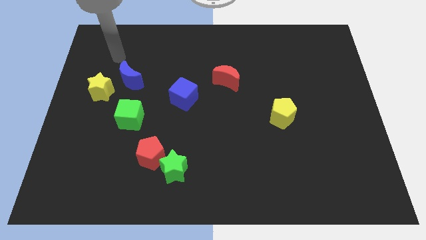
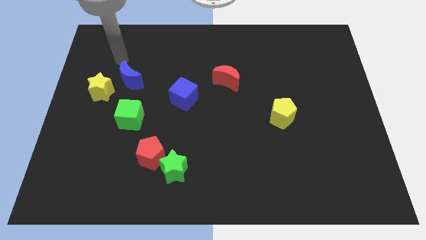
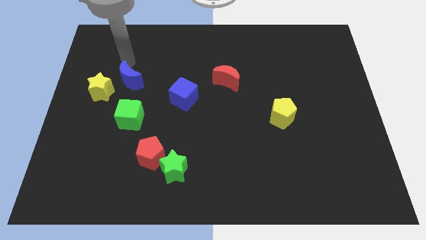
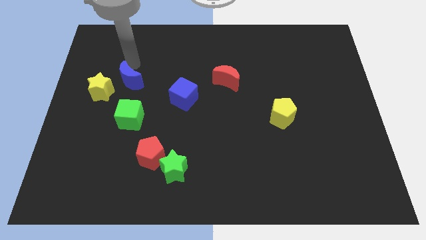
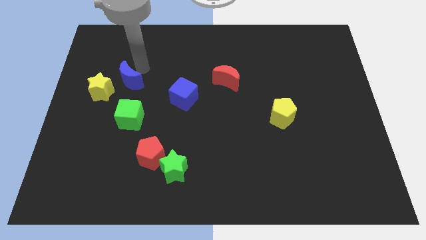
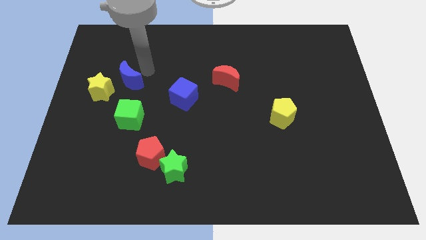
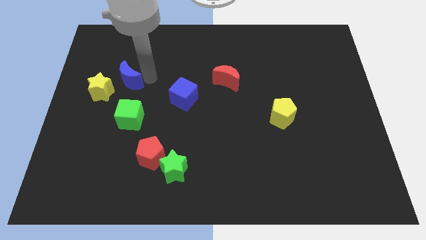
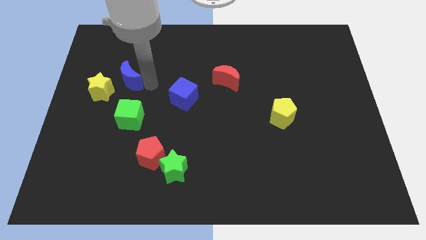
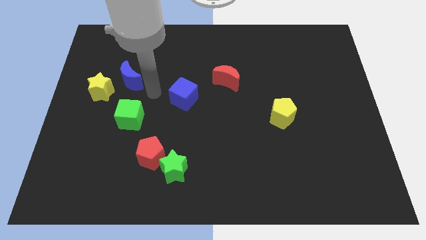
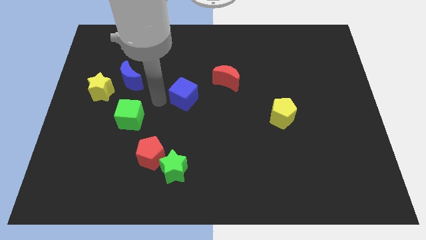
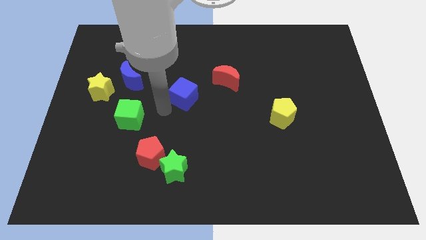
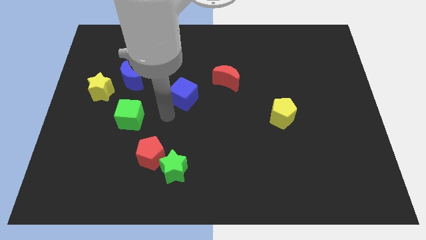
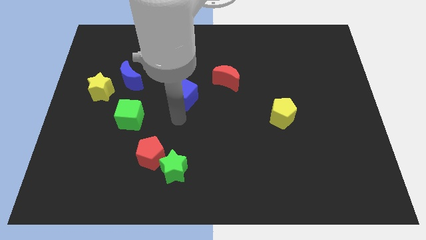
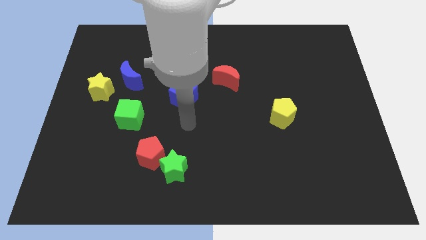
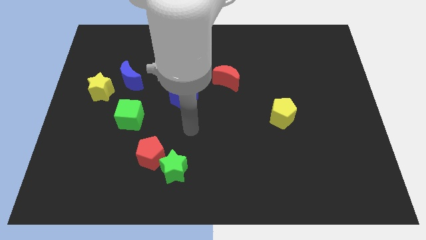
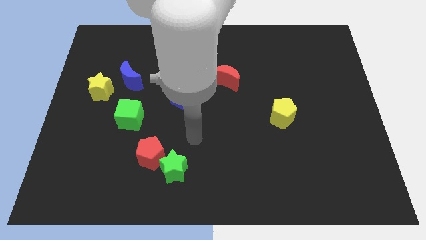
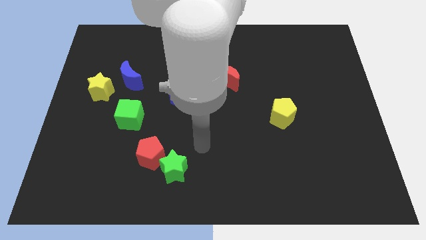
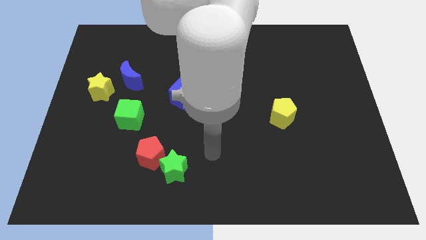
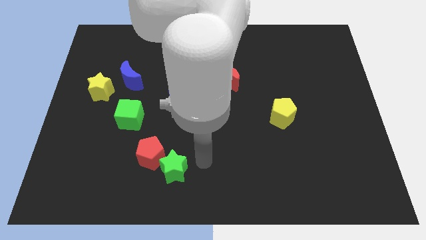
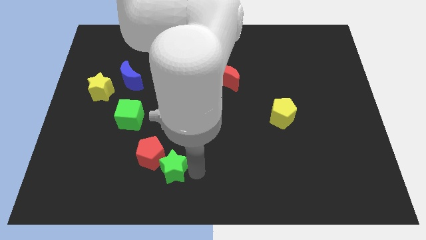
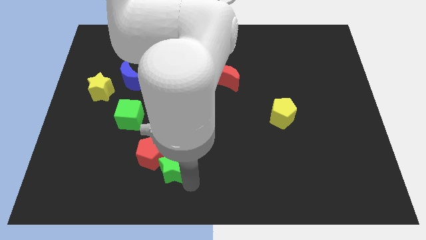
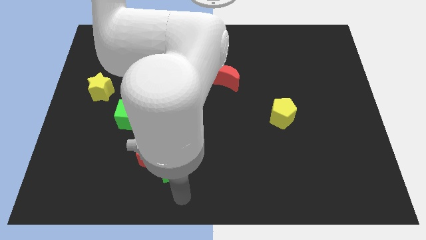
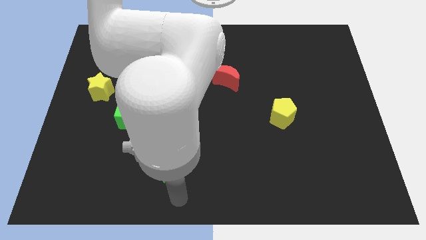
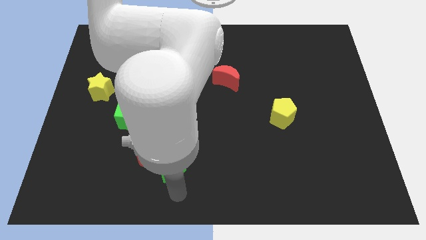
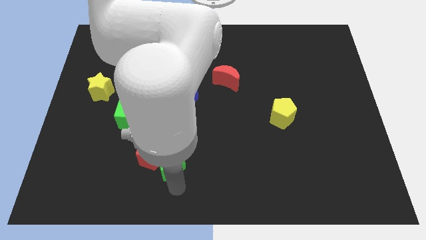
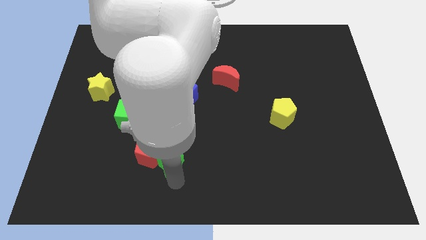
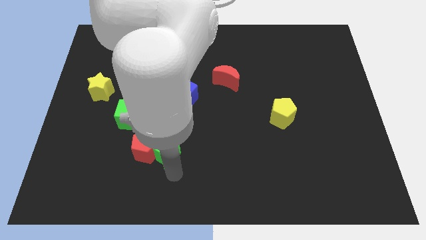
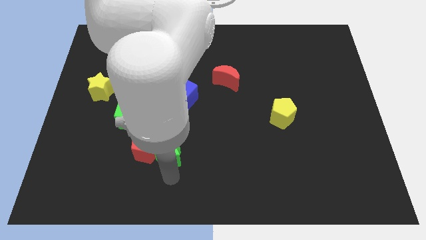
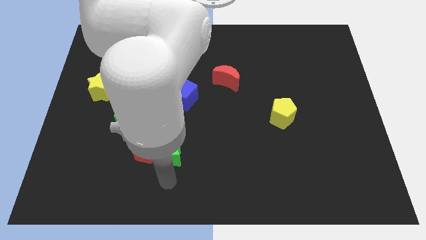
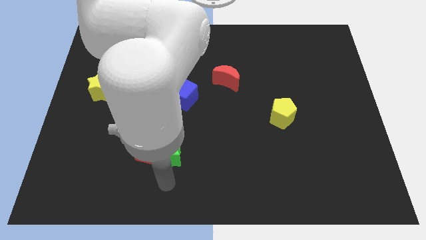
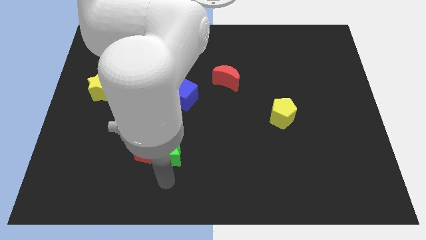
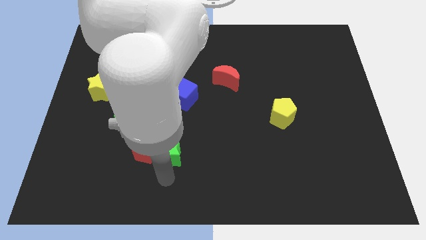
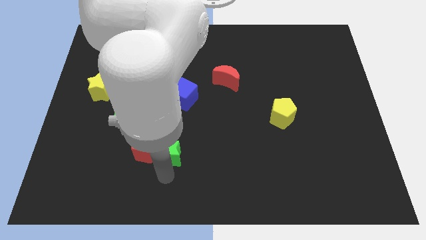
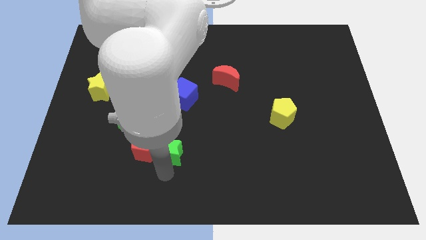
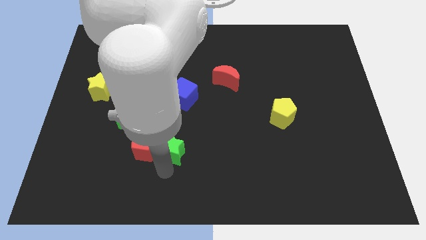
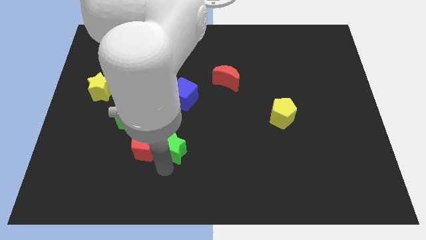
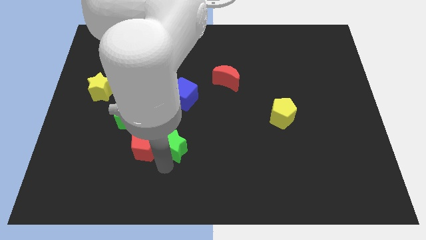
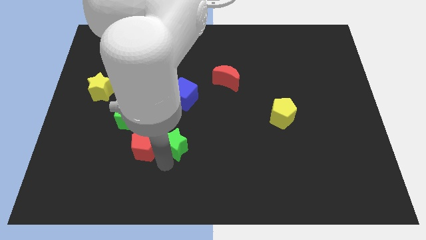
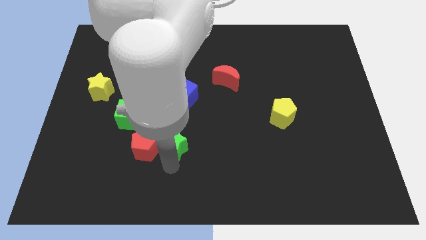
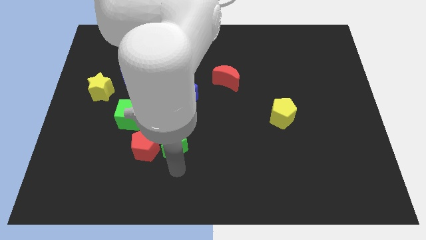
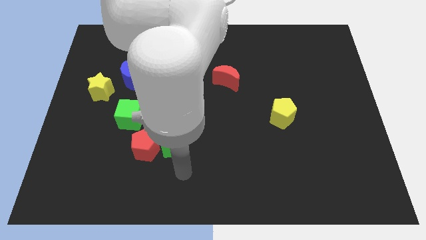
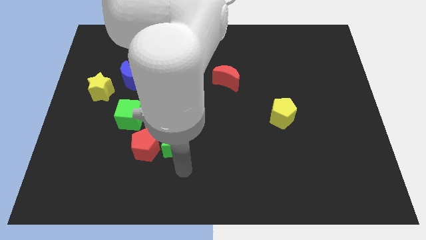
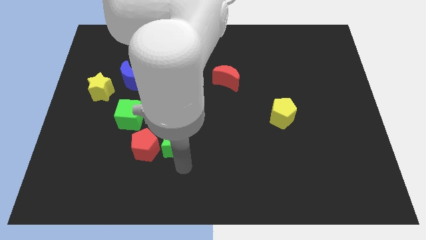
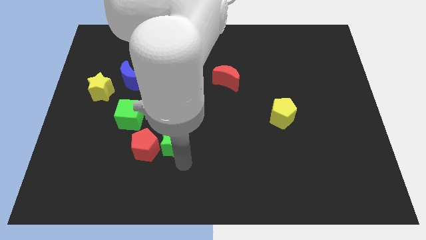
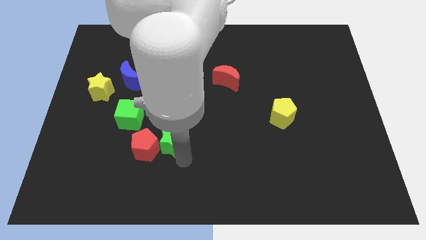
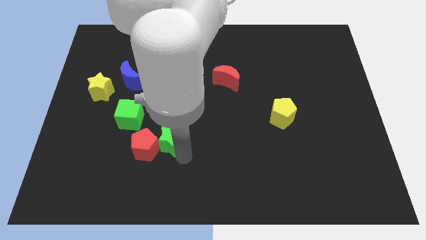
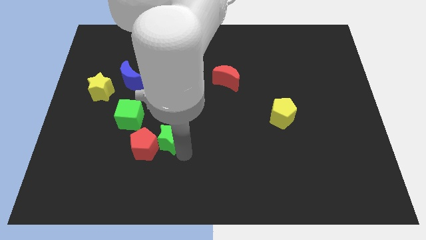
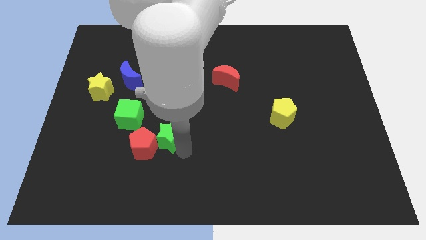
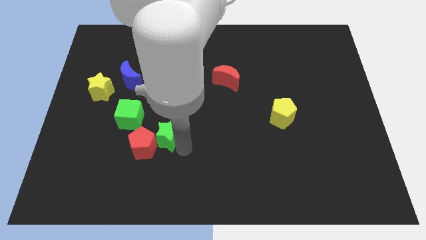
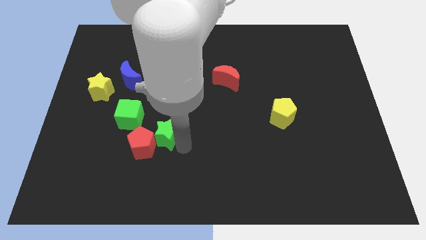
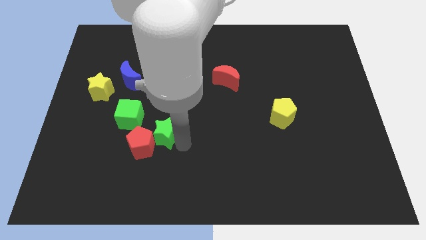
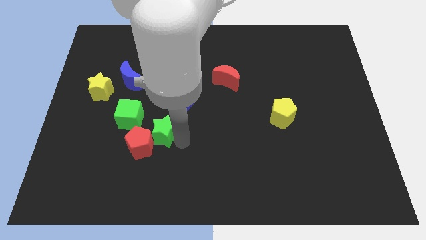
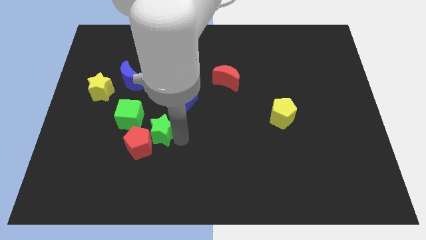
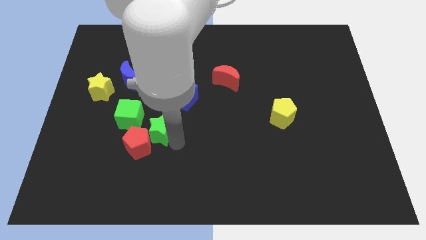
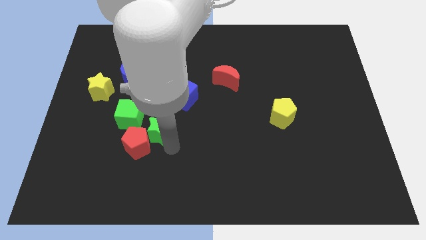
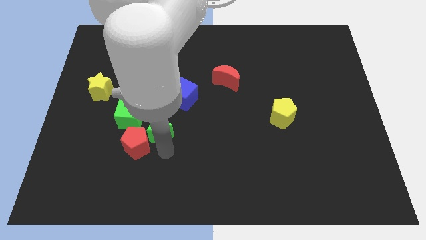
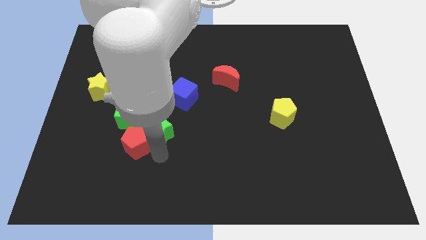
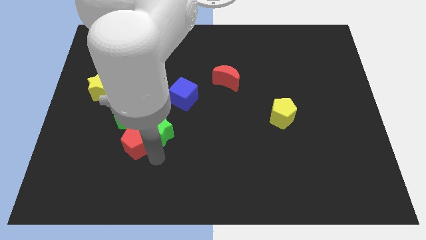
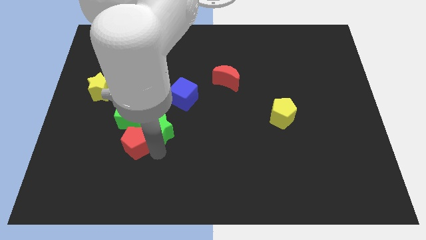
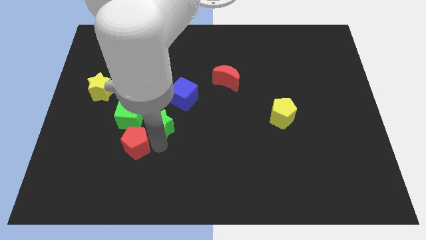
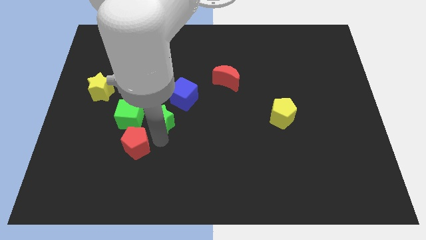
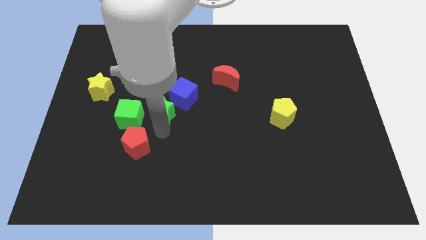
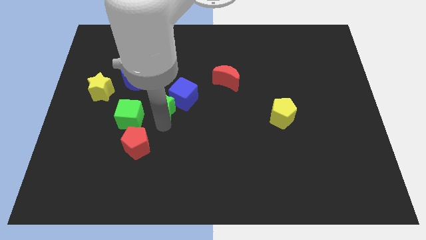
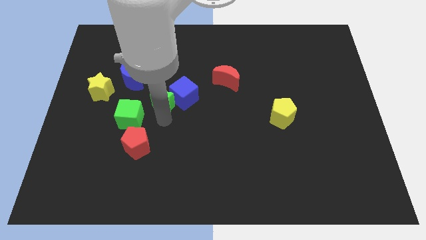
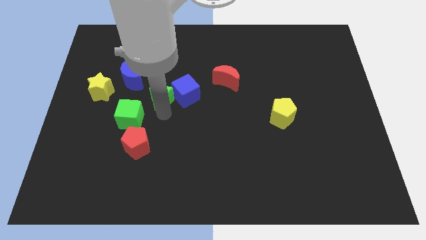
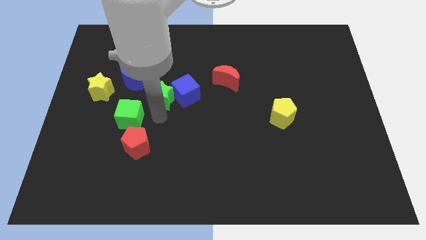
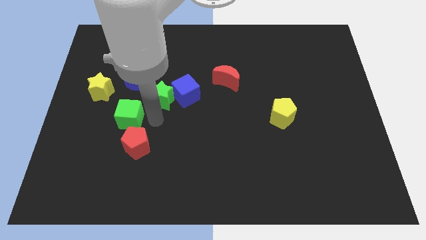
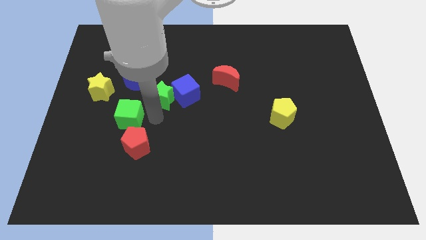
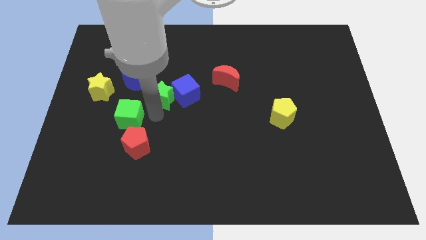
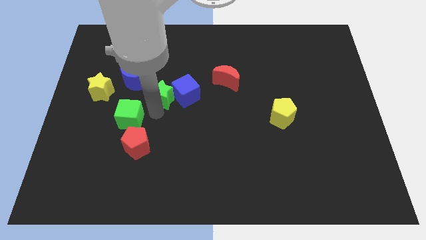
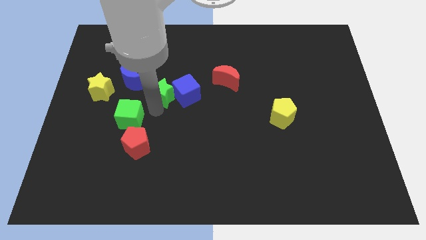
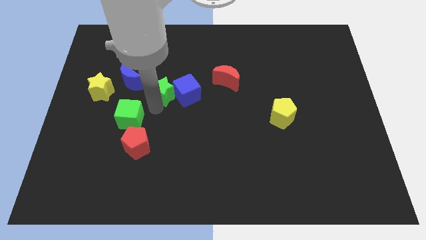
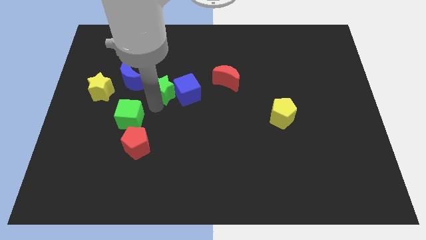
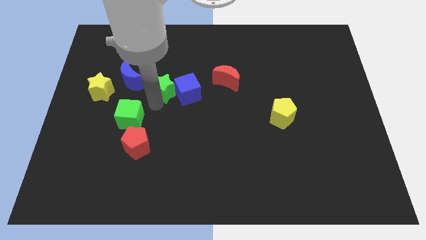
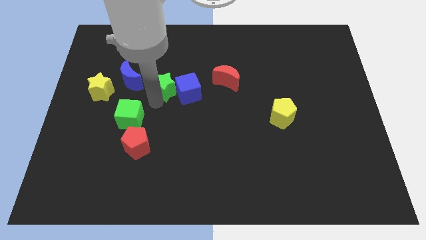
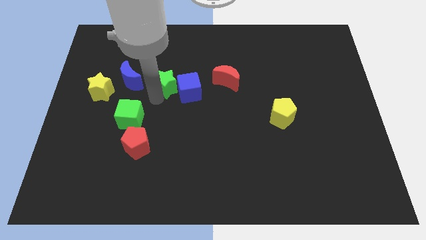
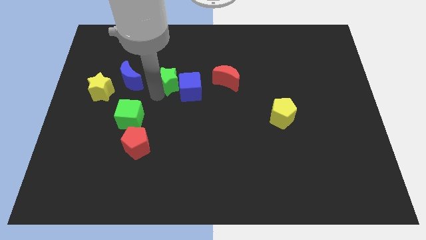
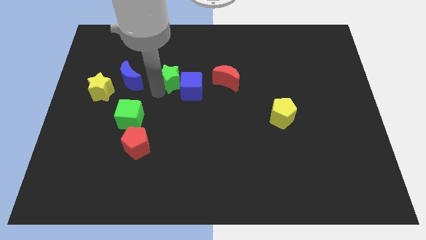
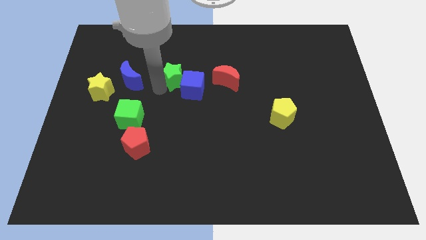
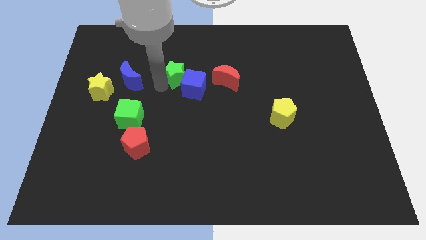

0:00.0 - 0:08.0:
slide the green star above the blue cube
